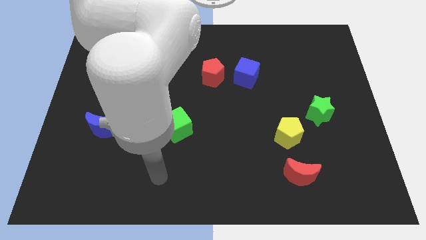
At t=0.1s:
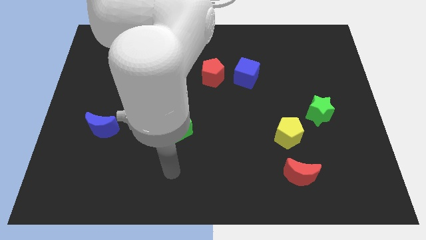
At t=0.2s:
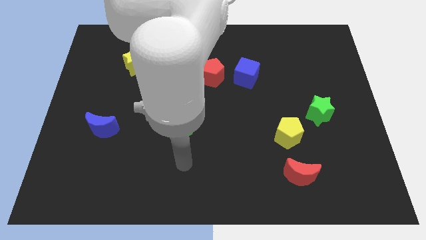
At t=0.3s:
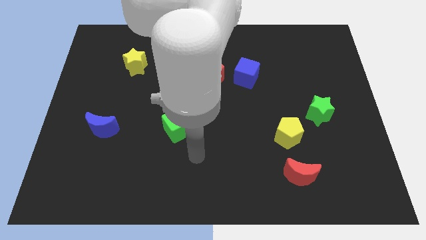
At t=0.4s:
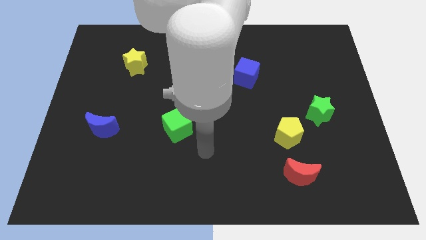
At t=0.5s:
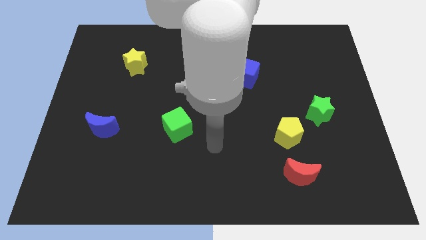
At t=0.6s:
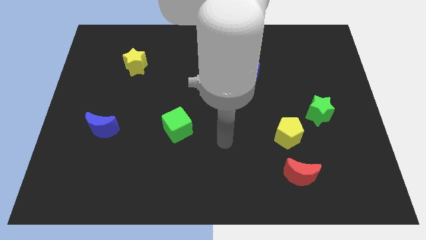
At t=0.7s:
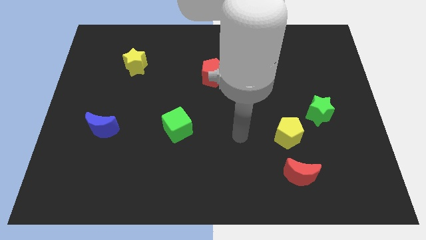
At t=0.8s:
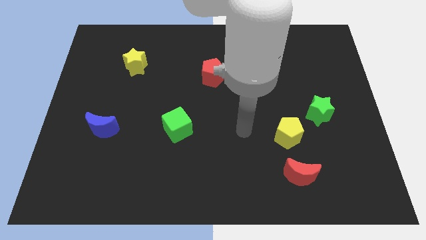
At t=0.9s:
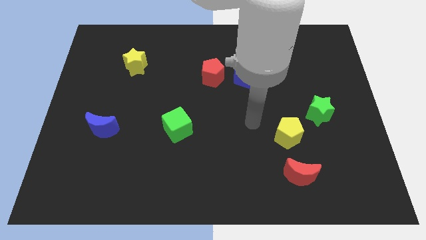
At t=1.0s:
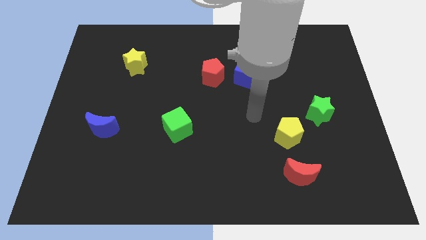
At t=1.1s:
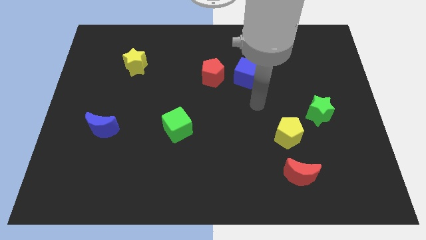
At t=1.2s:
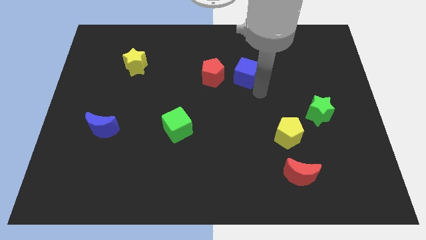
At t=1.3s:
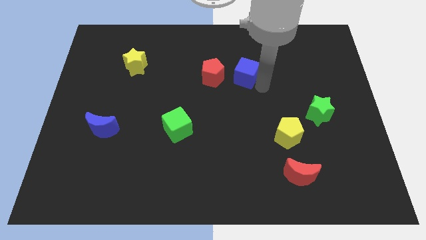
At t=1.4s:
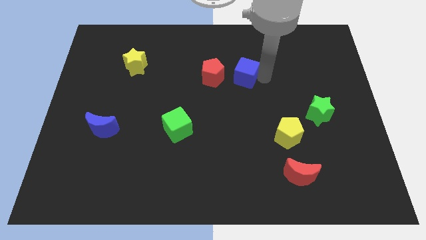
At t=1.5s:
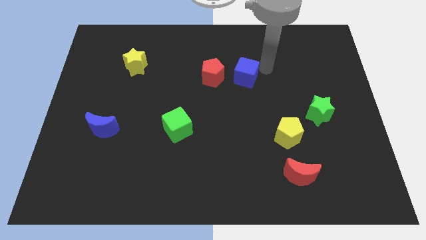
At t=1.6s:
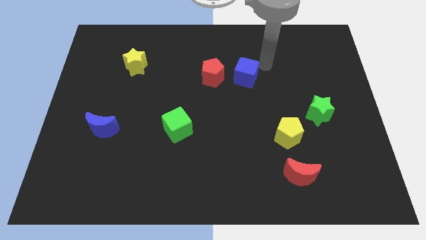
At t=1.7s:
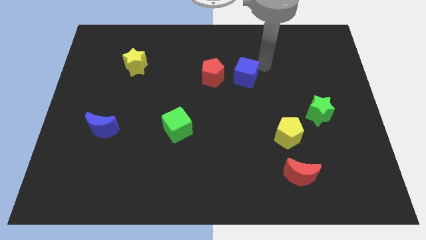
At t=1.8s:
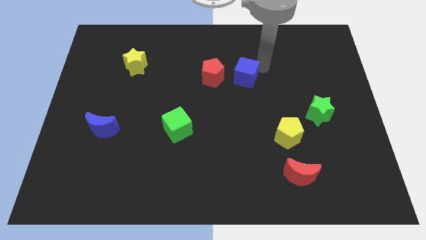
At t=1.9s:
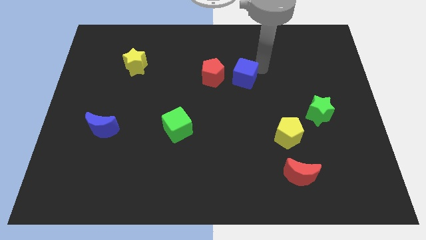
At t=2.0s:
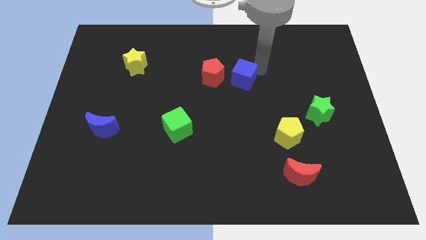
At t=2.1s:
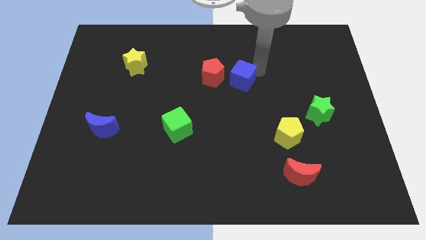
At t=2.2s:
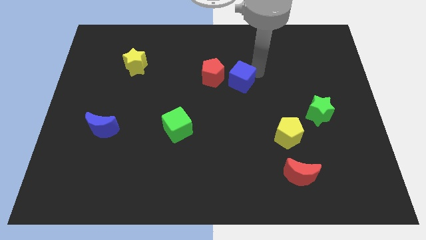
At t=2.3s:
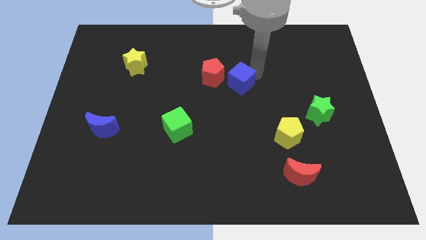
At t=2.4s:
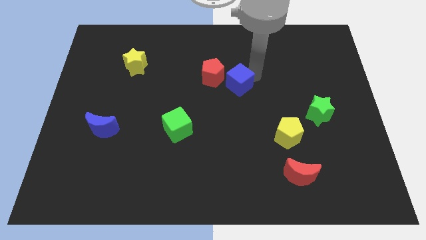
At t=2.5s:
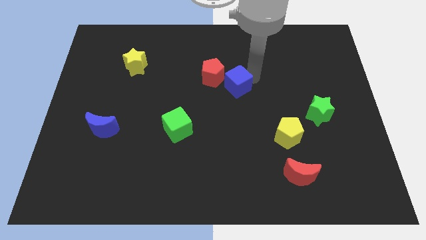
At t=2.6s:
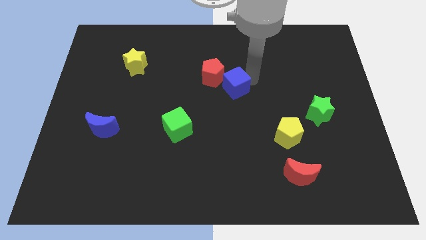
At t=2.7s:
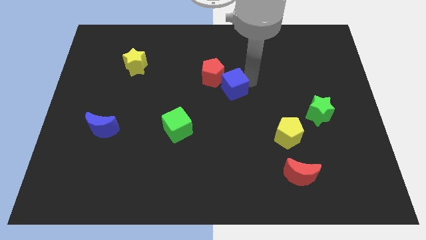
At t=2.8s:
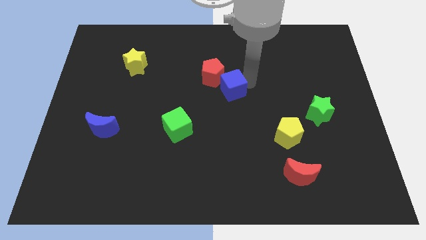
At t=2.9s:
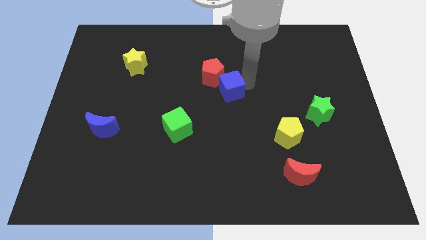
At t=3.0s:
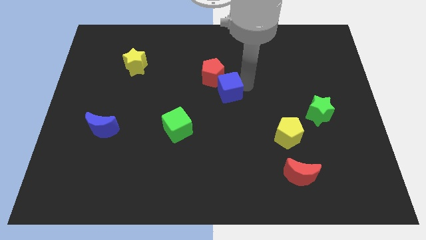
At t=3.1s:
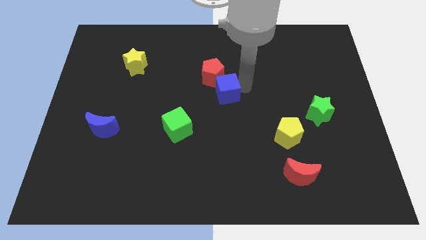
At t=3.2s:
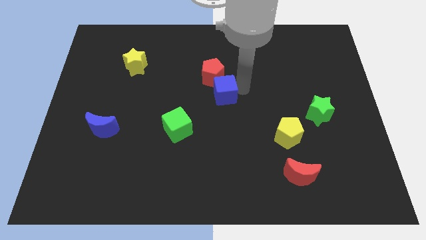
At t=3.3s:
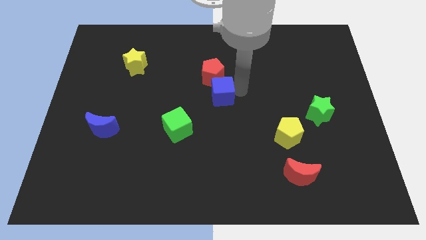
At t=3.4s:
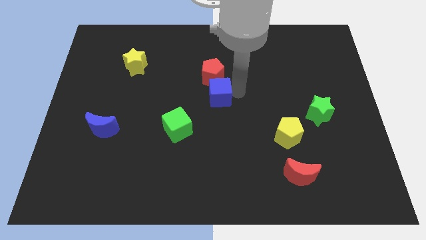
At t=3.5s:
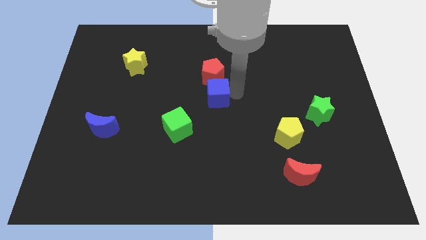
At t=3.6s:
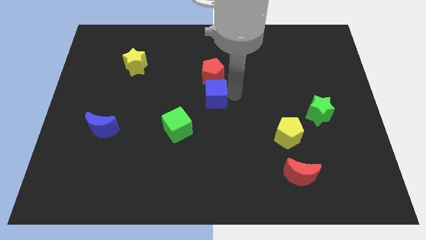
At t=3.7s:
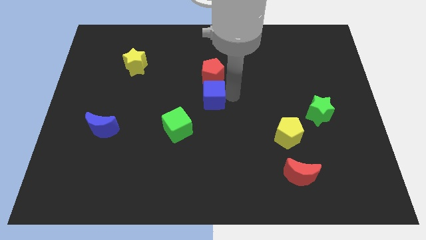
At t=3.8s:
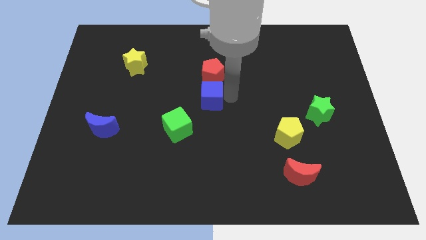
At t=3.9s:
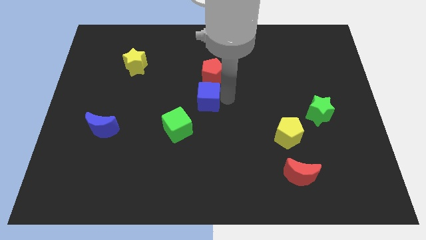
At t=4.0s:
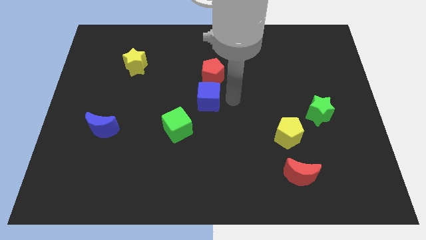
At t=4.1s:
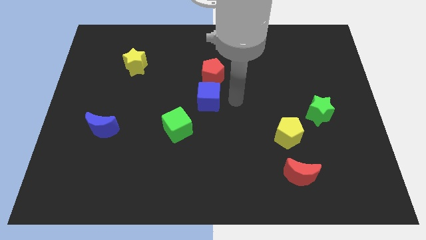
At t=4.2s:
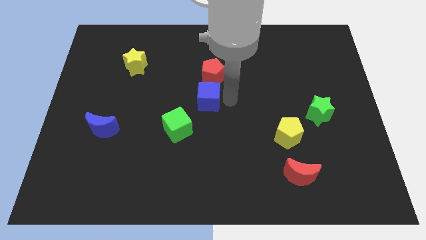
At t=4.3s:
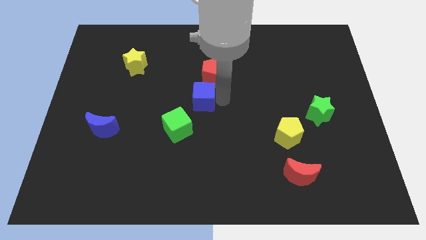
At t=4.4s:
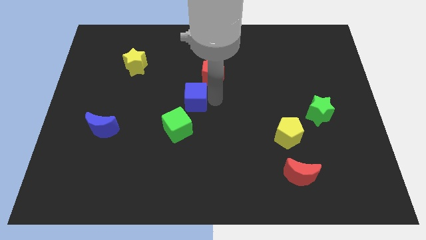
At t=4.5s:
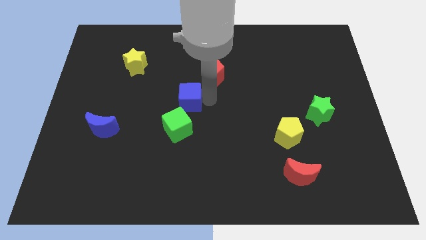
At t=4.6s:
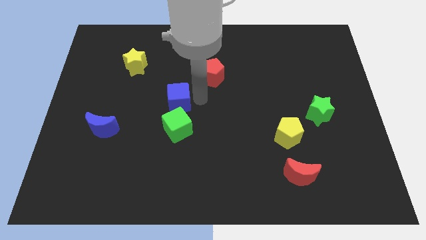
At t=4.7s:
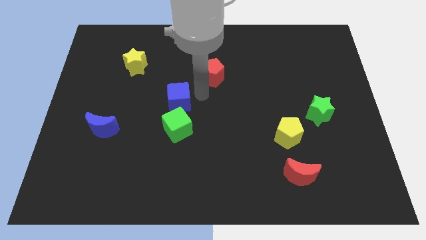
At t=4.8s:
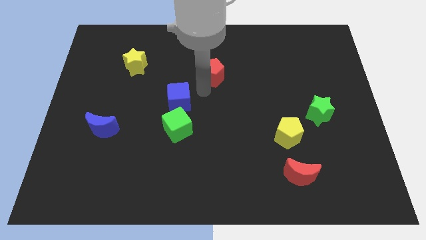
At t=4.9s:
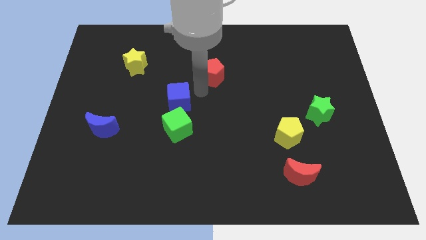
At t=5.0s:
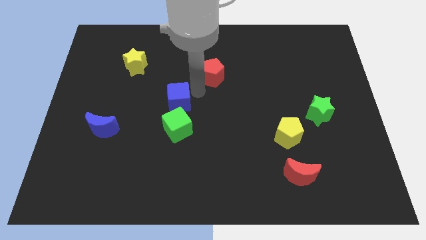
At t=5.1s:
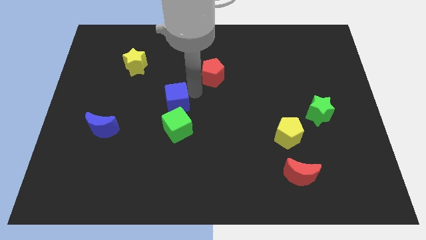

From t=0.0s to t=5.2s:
put the blue cube to the top left side of the green cube

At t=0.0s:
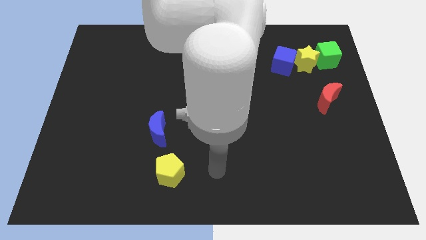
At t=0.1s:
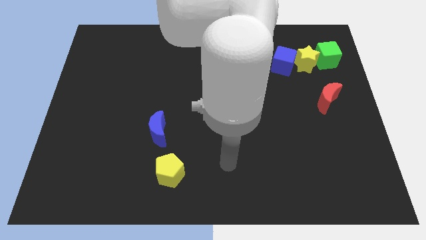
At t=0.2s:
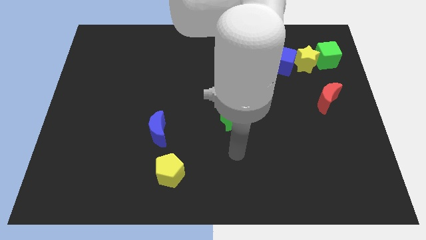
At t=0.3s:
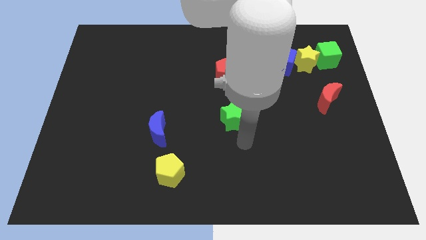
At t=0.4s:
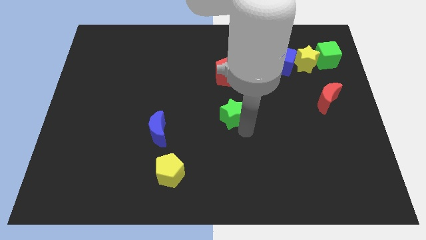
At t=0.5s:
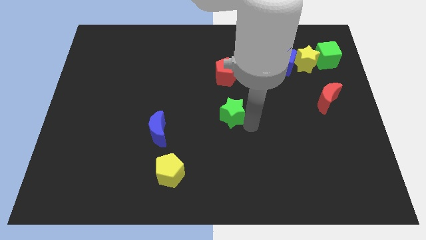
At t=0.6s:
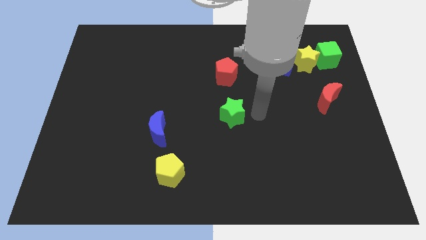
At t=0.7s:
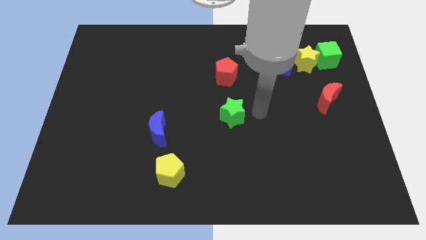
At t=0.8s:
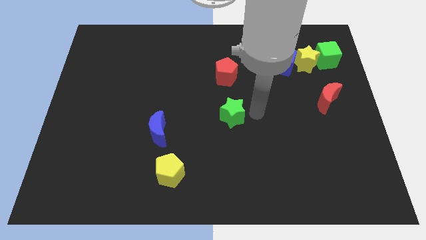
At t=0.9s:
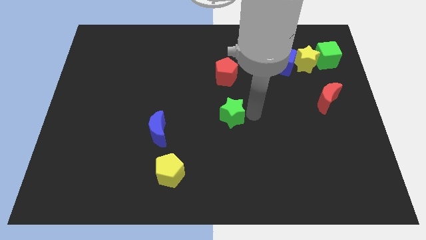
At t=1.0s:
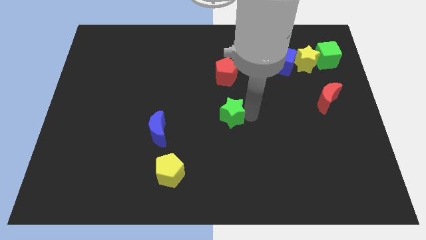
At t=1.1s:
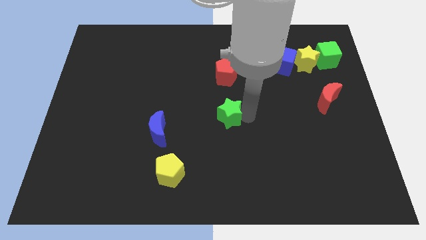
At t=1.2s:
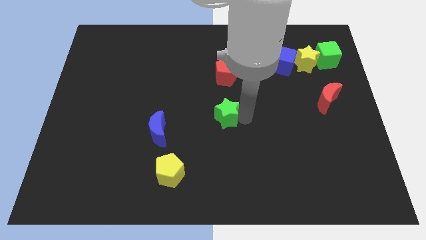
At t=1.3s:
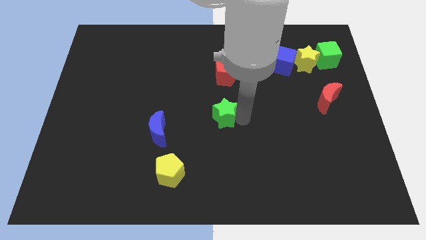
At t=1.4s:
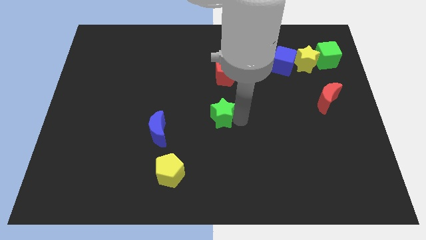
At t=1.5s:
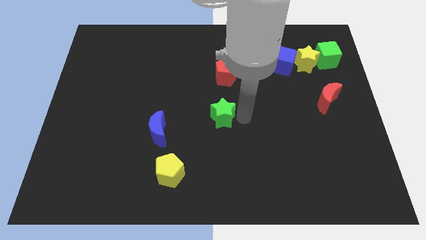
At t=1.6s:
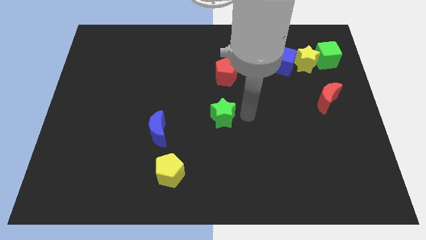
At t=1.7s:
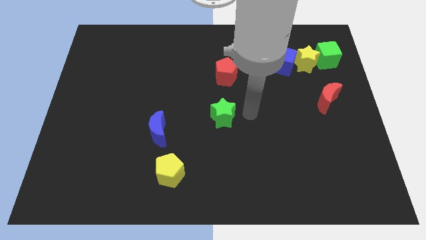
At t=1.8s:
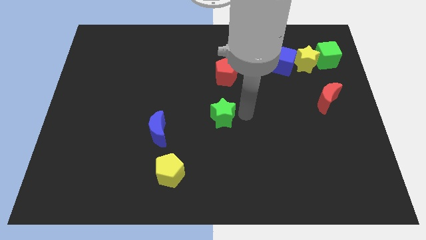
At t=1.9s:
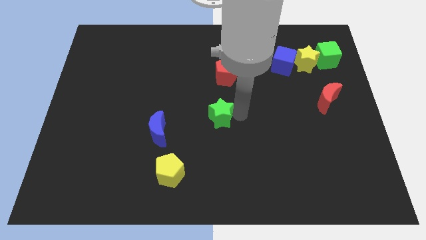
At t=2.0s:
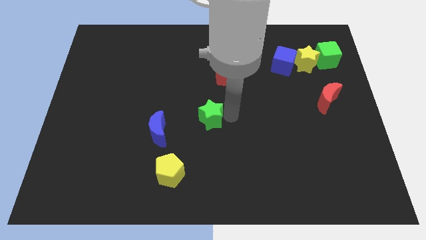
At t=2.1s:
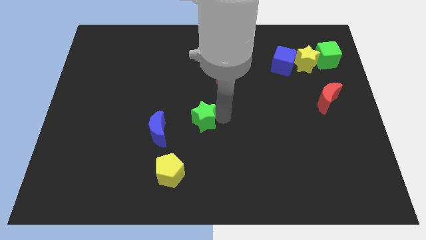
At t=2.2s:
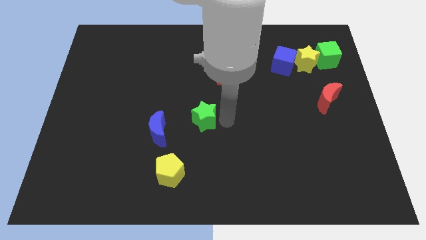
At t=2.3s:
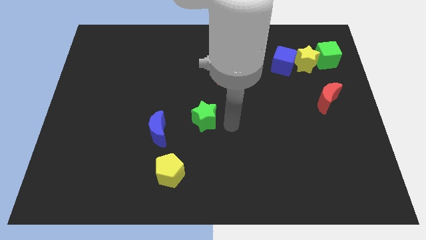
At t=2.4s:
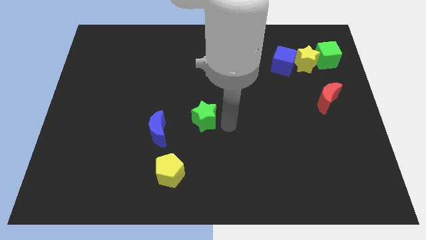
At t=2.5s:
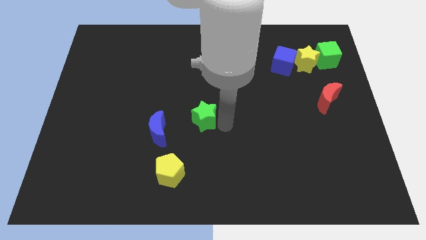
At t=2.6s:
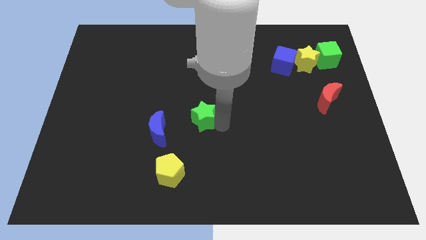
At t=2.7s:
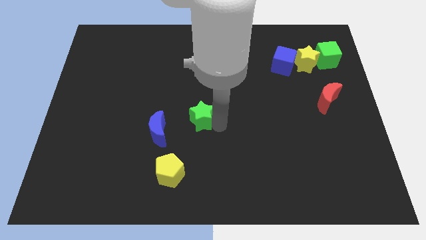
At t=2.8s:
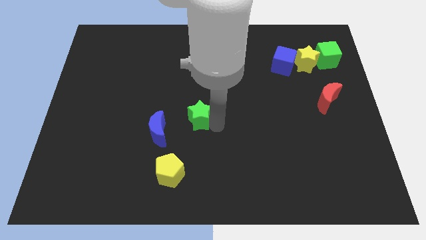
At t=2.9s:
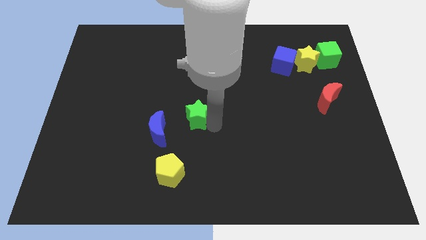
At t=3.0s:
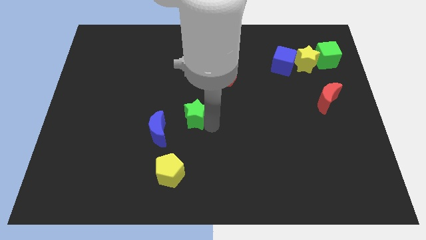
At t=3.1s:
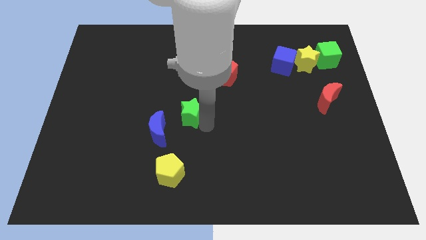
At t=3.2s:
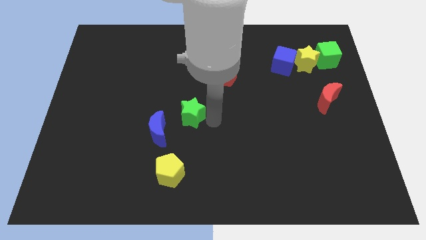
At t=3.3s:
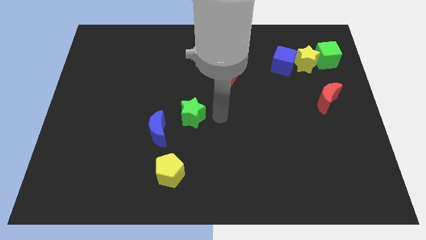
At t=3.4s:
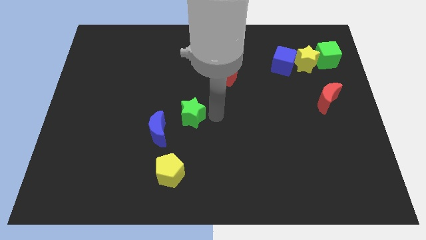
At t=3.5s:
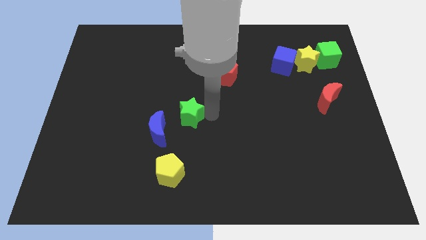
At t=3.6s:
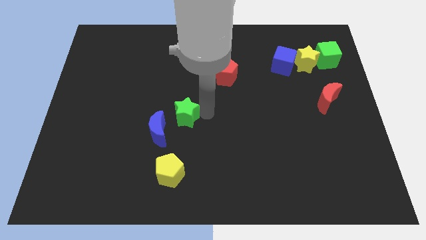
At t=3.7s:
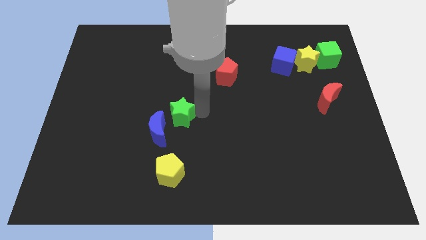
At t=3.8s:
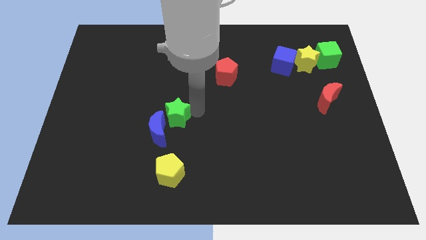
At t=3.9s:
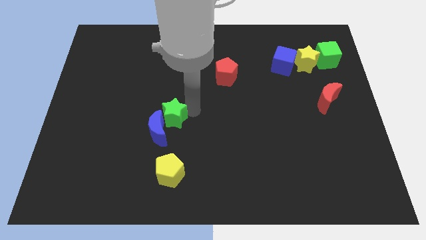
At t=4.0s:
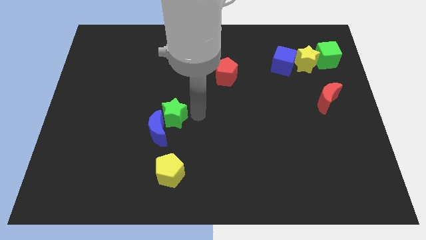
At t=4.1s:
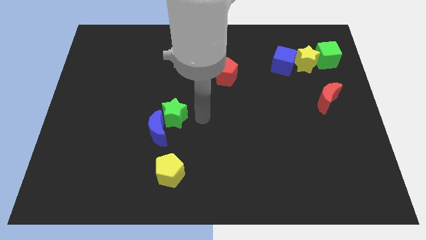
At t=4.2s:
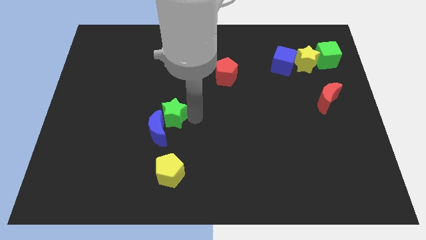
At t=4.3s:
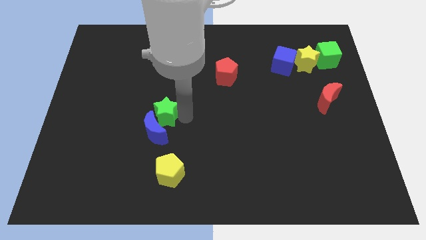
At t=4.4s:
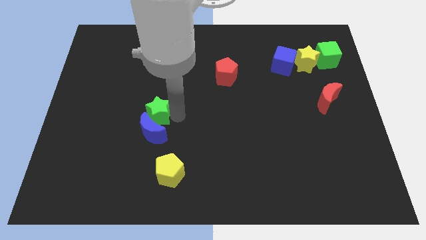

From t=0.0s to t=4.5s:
move the green star diagonally up and to the left of the blue moon
